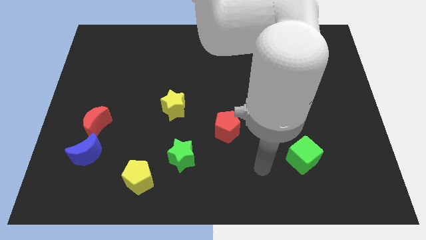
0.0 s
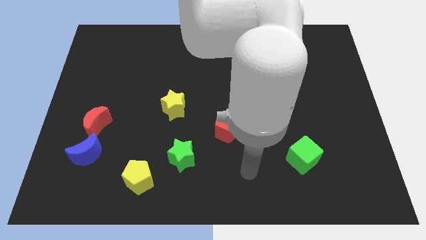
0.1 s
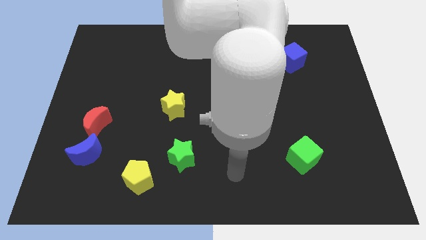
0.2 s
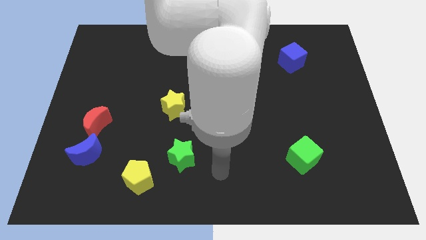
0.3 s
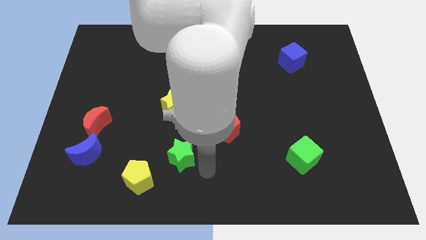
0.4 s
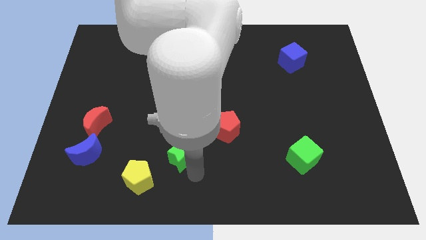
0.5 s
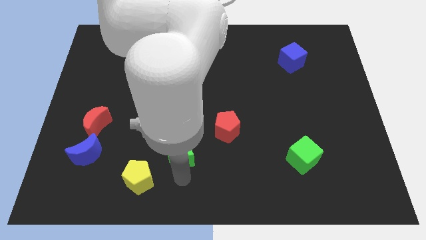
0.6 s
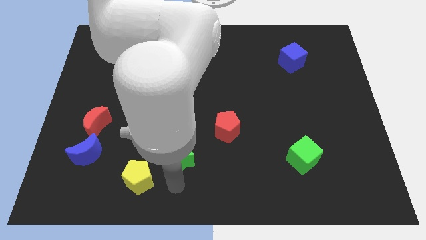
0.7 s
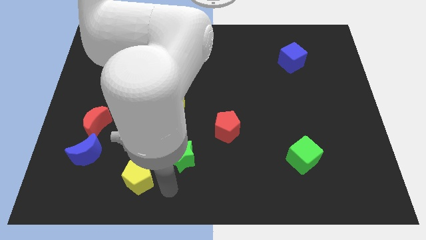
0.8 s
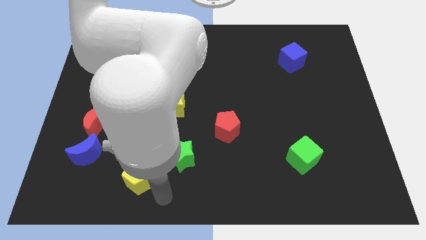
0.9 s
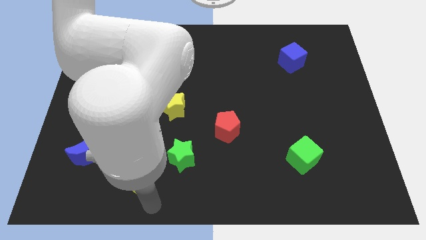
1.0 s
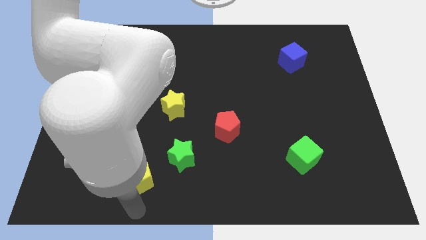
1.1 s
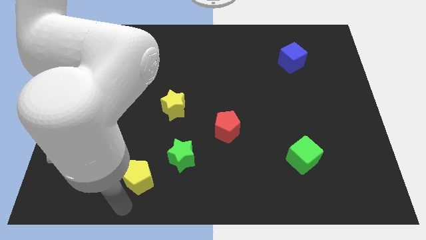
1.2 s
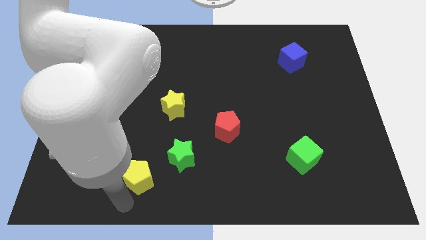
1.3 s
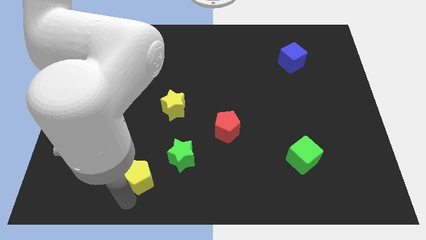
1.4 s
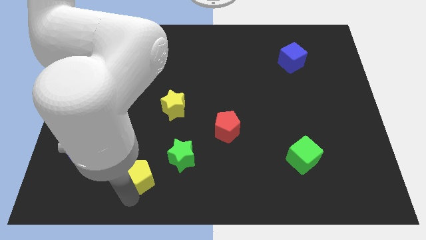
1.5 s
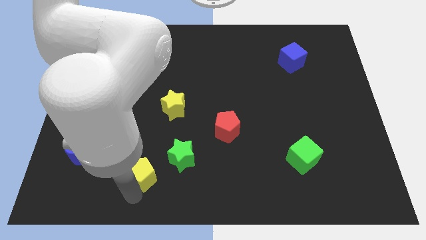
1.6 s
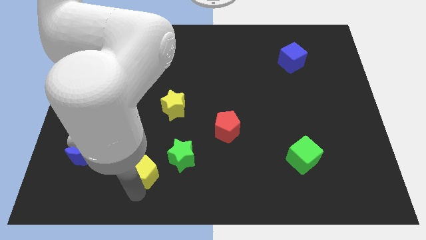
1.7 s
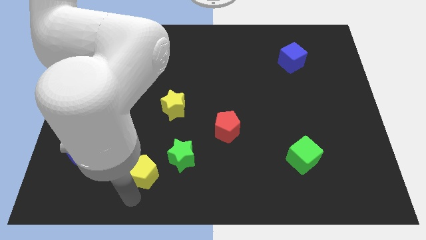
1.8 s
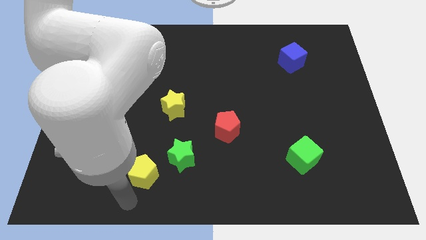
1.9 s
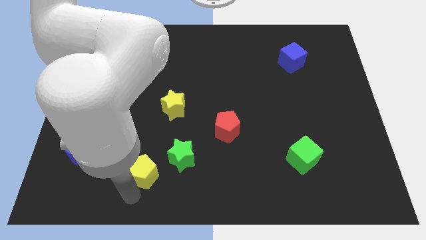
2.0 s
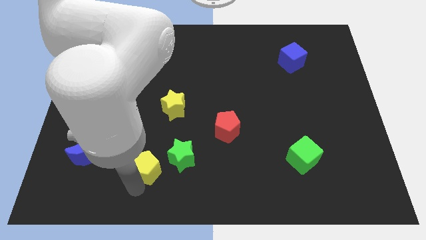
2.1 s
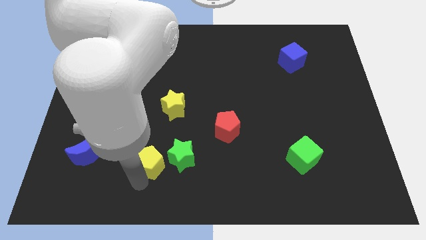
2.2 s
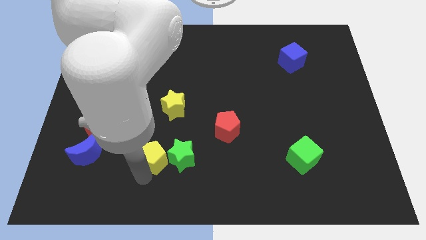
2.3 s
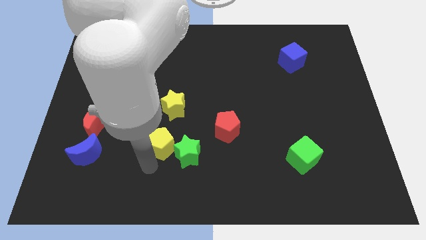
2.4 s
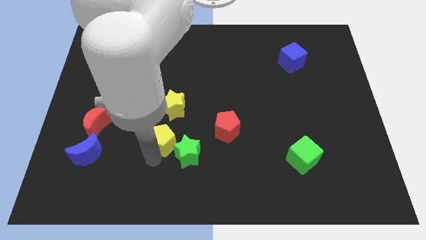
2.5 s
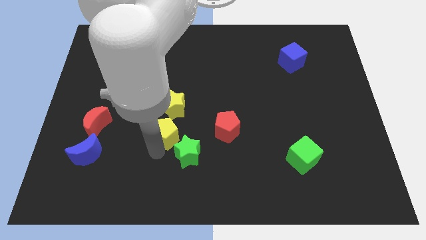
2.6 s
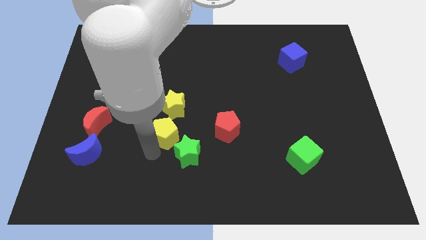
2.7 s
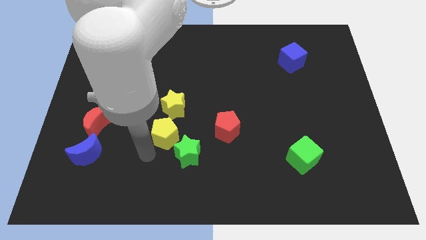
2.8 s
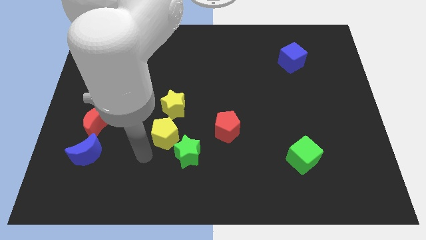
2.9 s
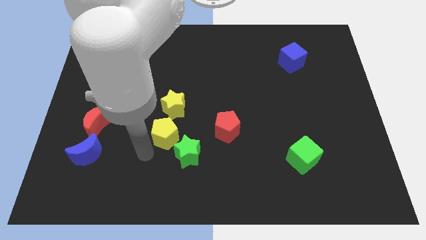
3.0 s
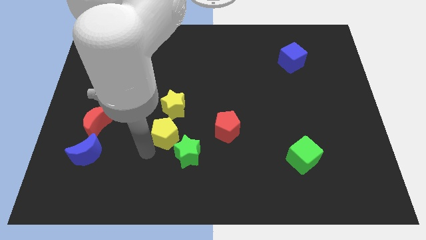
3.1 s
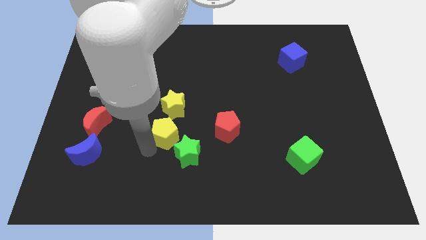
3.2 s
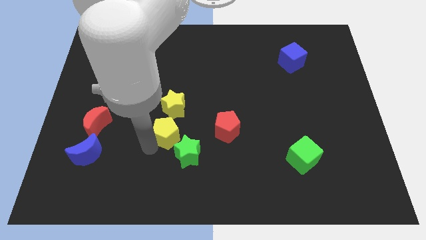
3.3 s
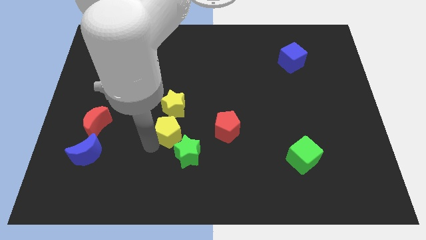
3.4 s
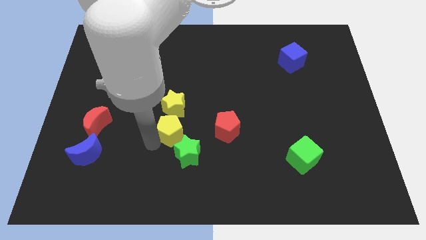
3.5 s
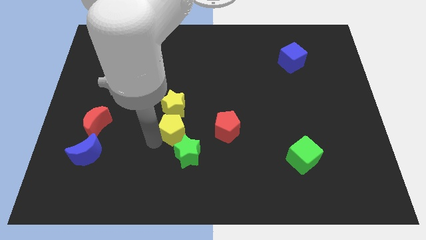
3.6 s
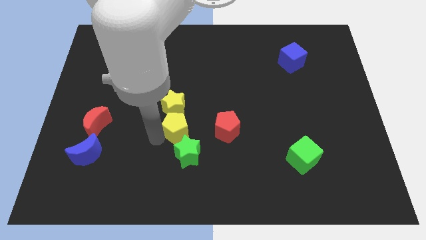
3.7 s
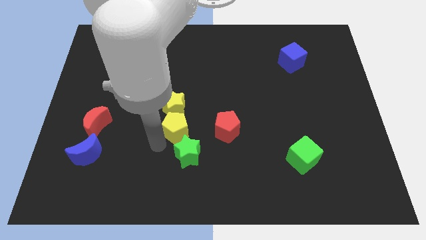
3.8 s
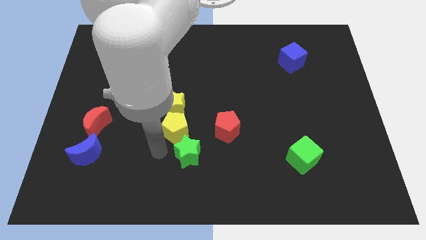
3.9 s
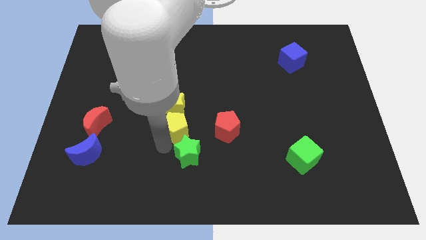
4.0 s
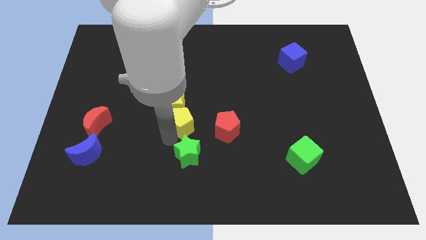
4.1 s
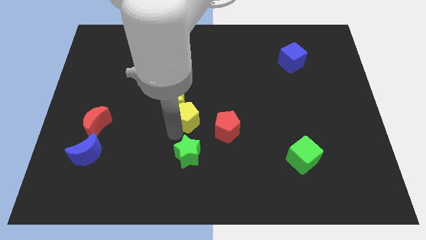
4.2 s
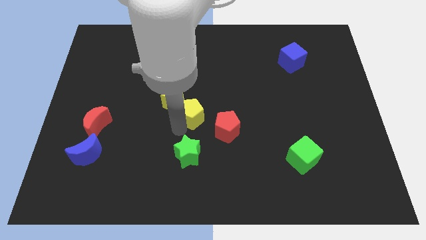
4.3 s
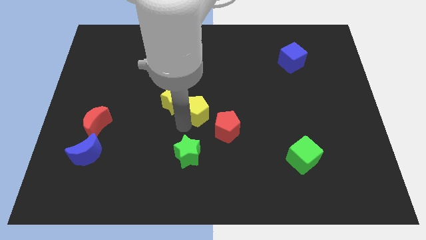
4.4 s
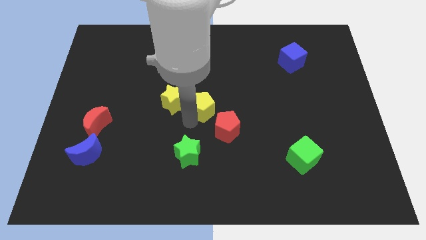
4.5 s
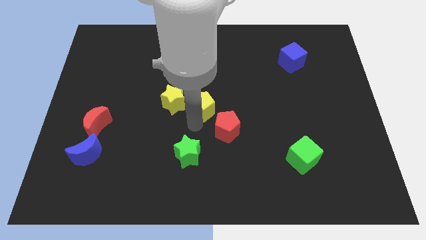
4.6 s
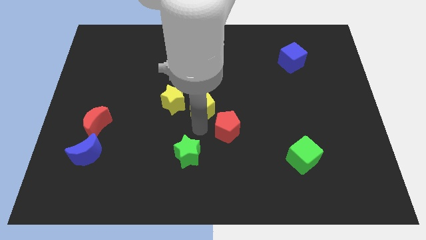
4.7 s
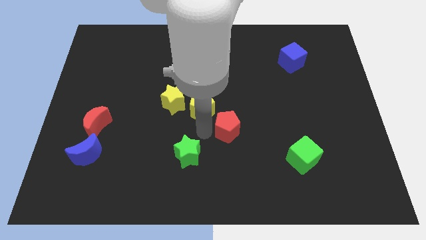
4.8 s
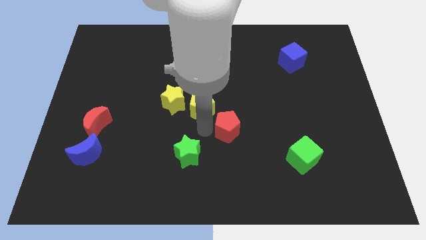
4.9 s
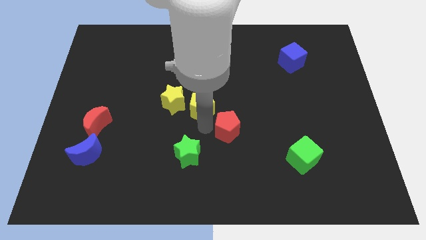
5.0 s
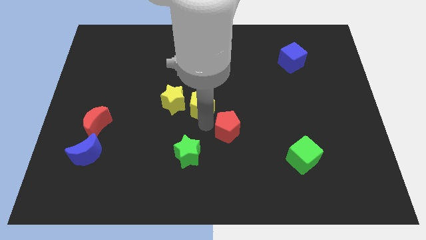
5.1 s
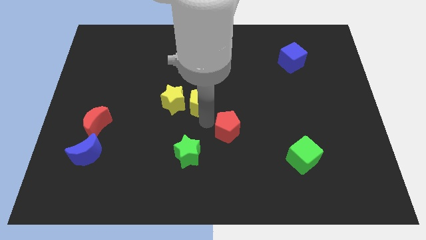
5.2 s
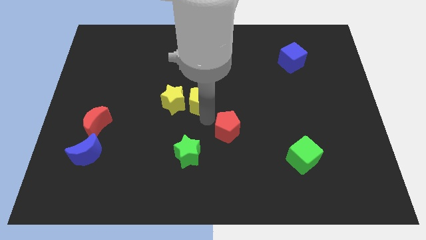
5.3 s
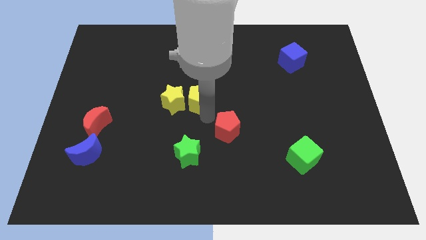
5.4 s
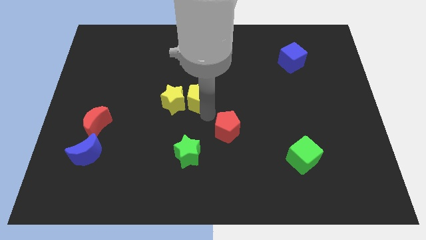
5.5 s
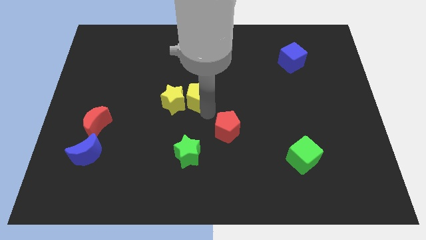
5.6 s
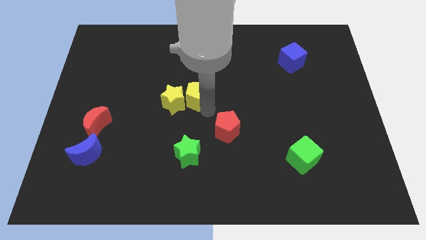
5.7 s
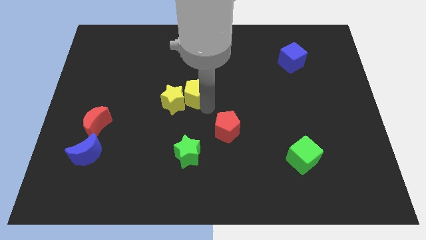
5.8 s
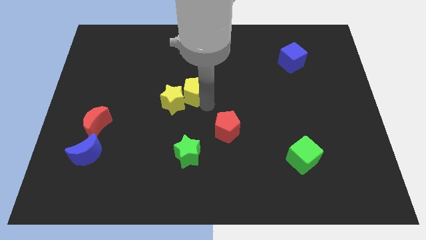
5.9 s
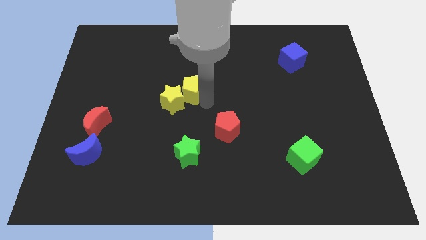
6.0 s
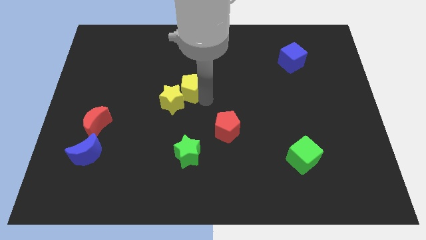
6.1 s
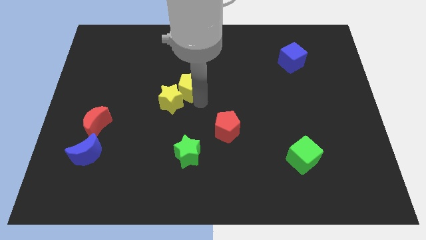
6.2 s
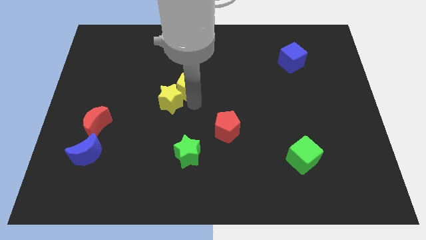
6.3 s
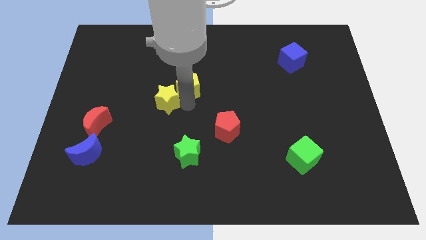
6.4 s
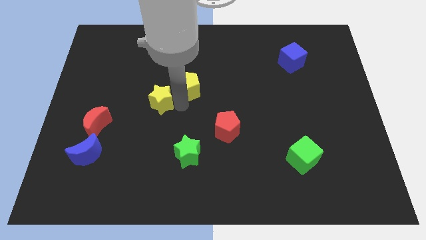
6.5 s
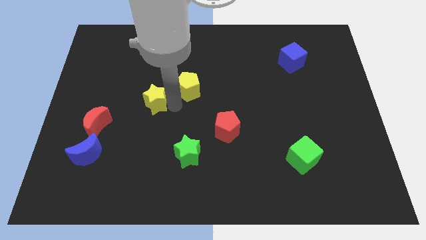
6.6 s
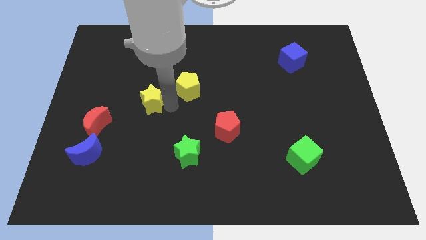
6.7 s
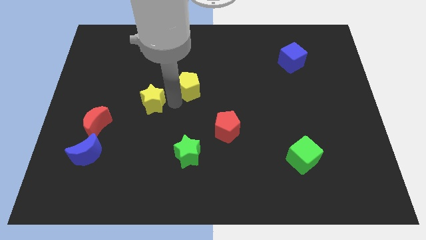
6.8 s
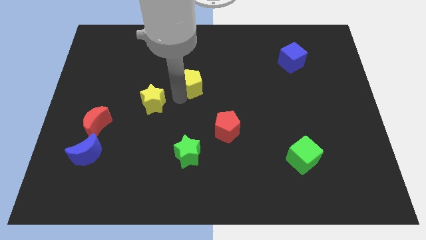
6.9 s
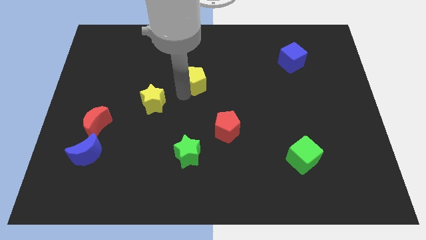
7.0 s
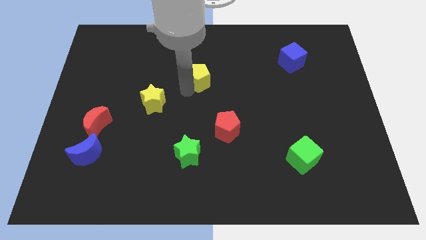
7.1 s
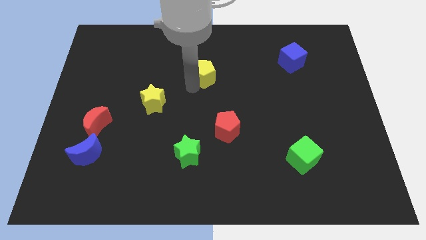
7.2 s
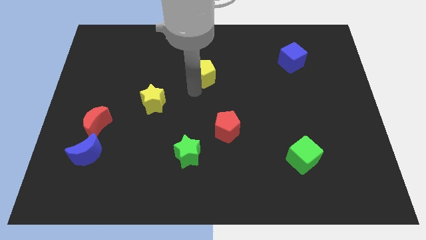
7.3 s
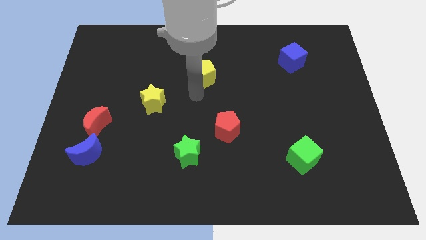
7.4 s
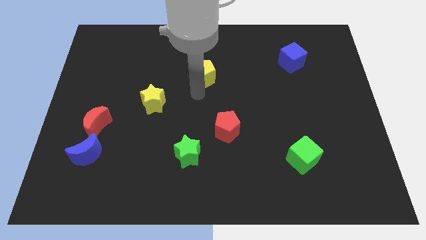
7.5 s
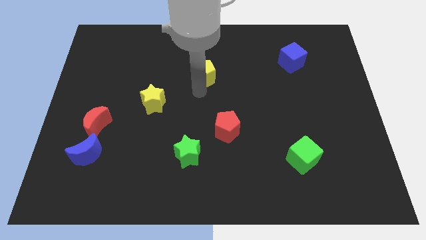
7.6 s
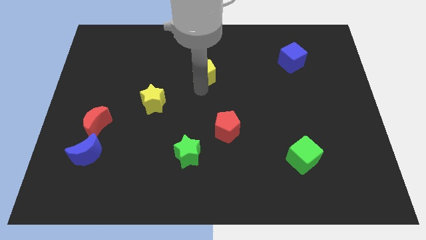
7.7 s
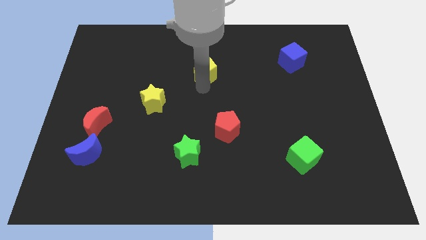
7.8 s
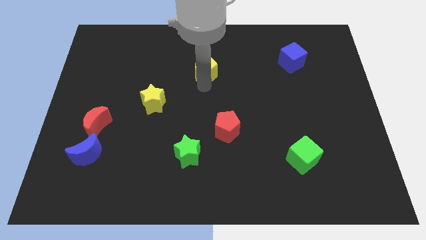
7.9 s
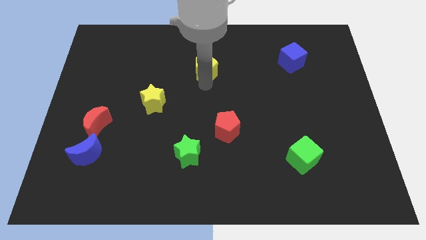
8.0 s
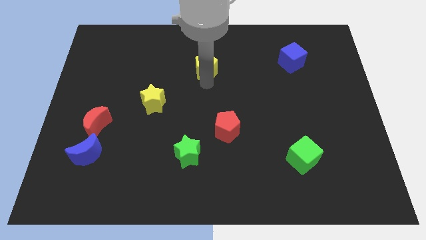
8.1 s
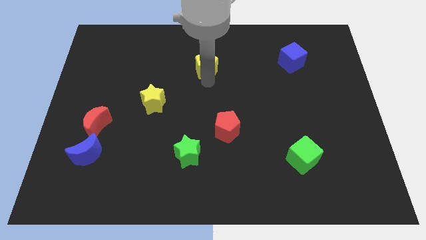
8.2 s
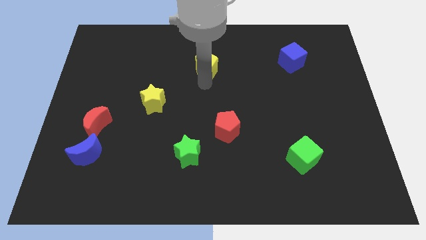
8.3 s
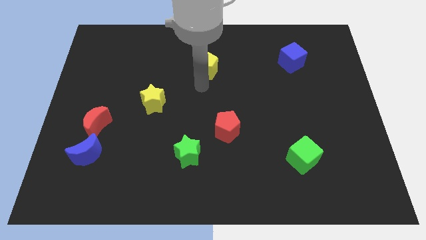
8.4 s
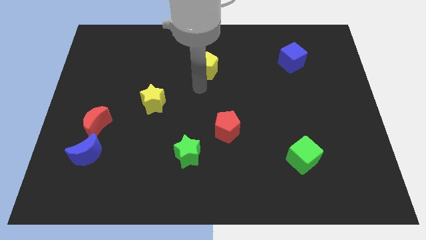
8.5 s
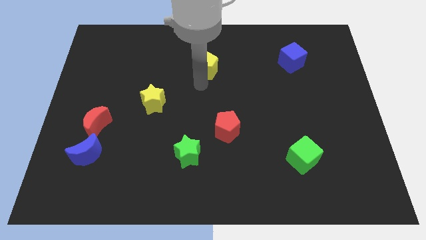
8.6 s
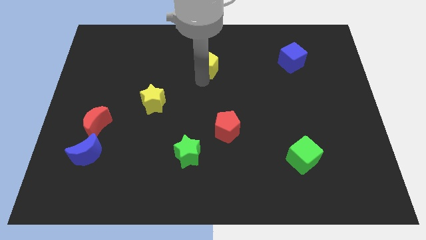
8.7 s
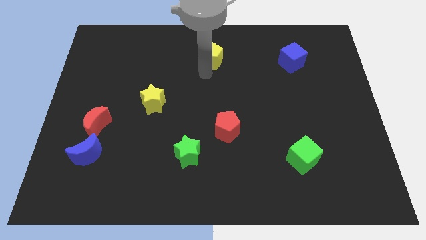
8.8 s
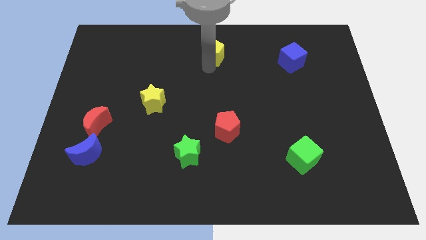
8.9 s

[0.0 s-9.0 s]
push the yellow pentagon to the top
